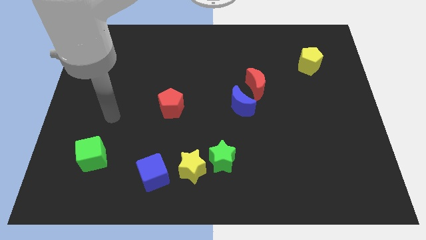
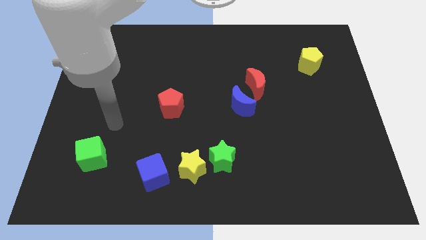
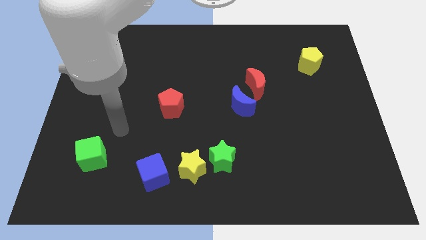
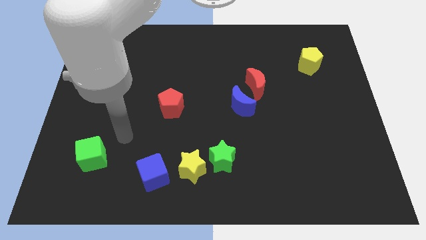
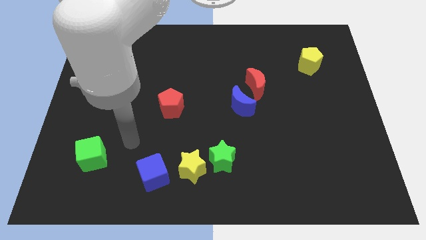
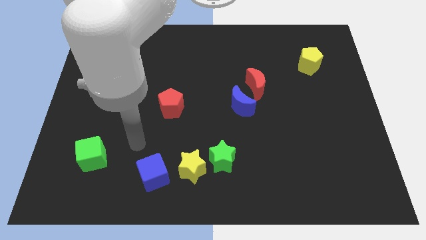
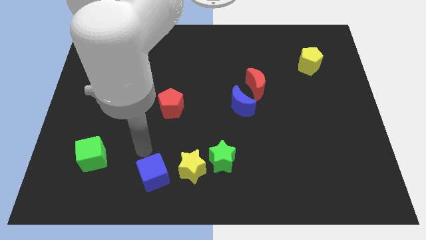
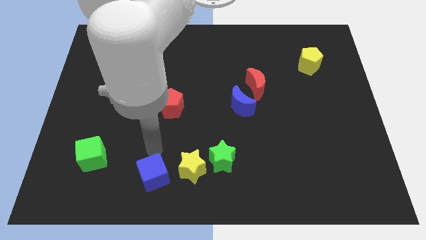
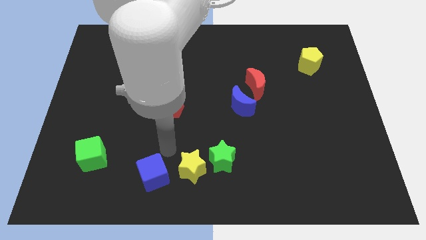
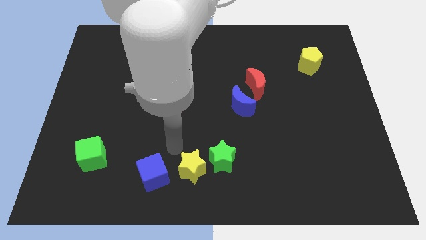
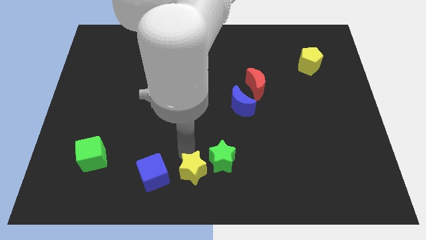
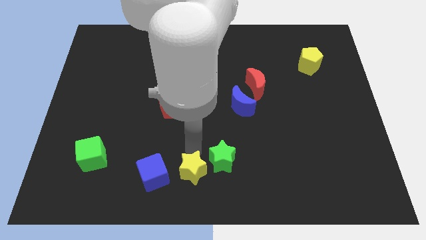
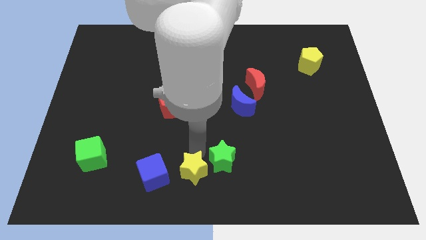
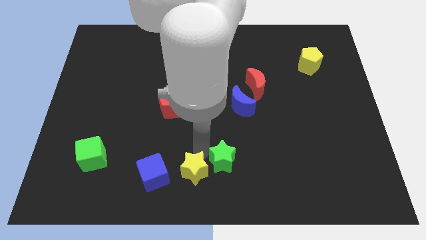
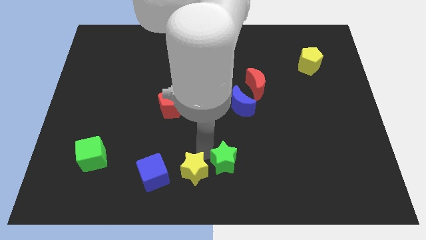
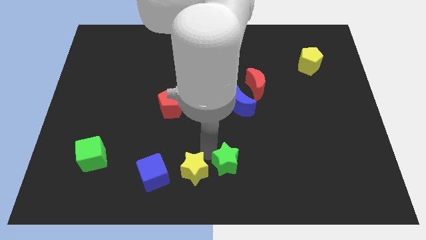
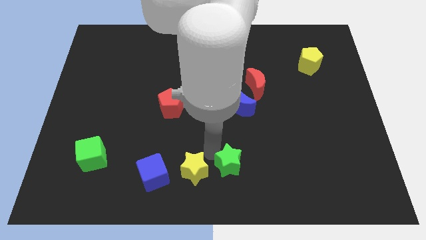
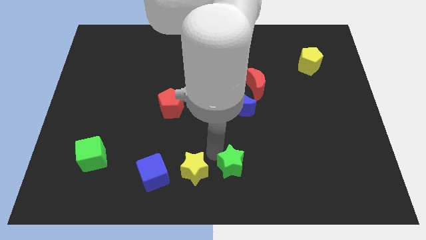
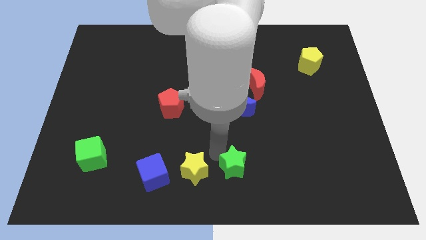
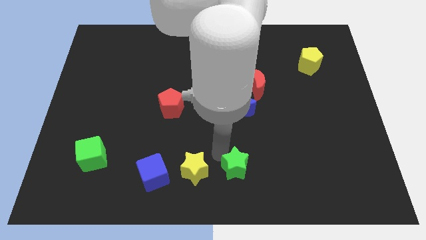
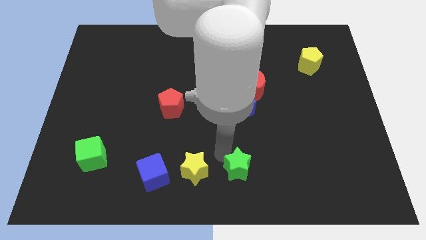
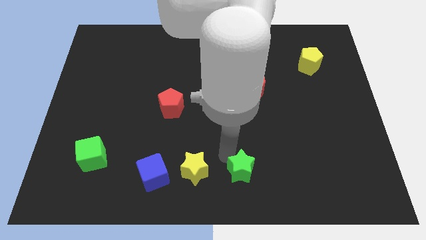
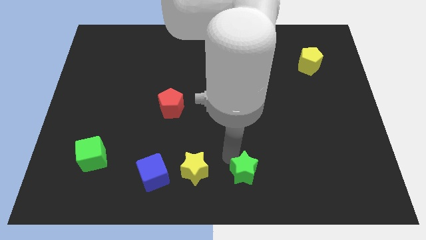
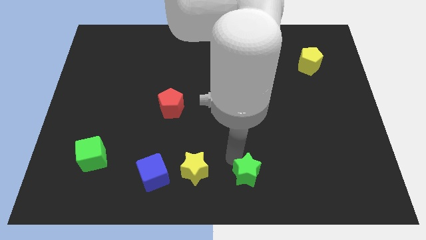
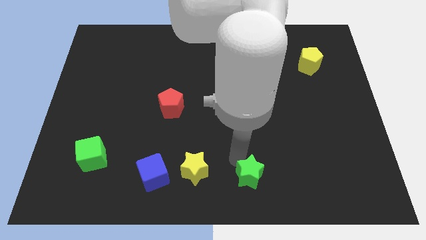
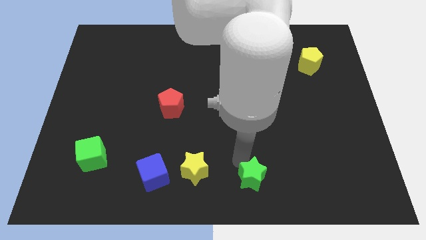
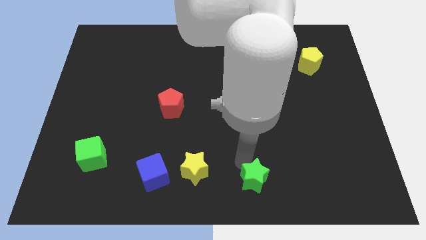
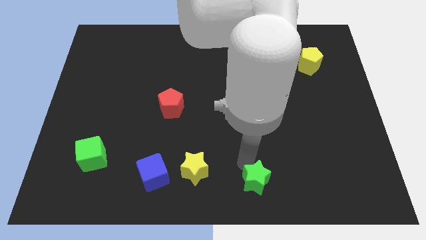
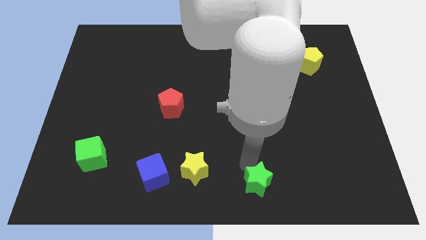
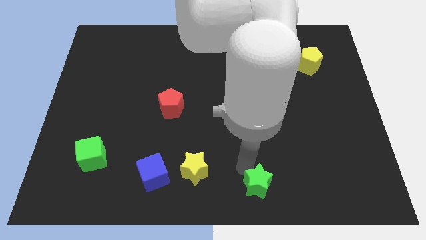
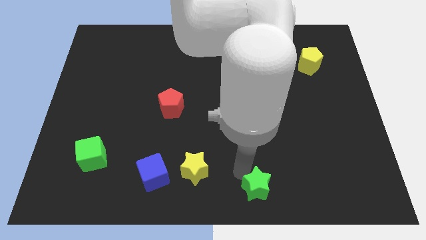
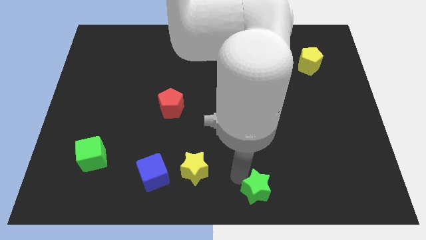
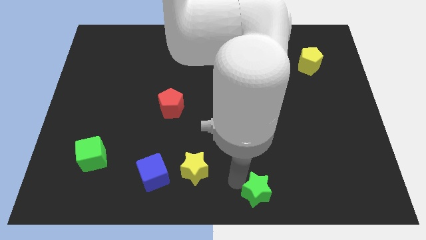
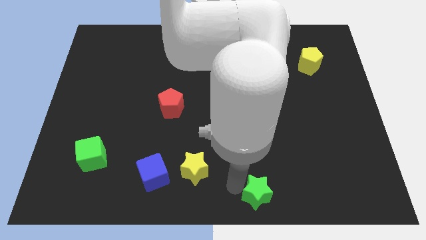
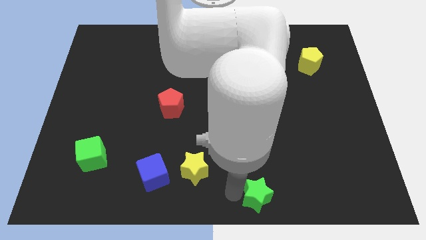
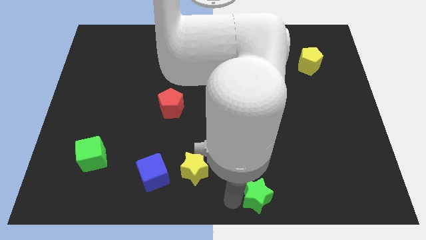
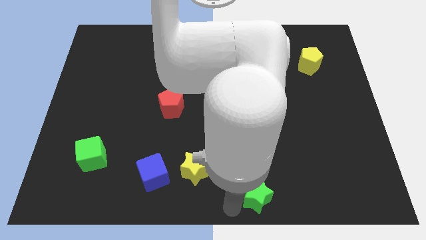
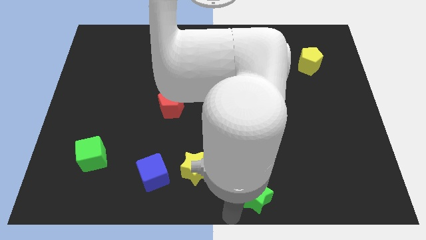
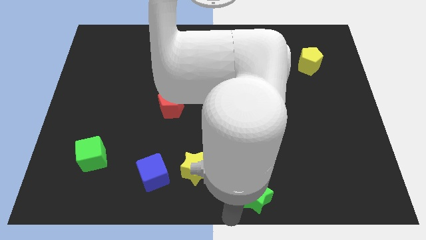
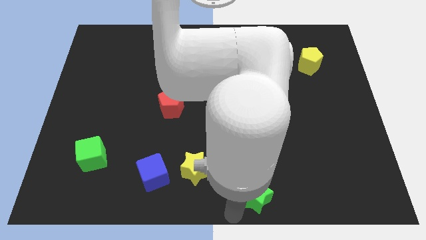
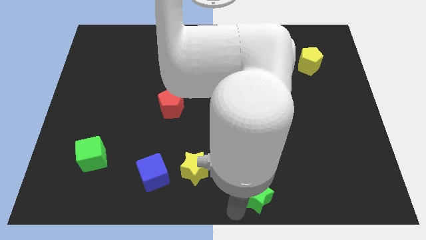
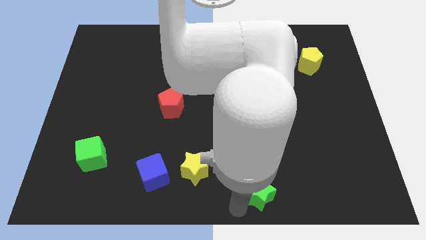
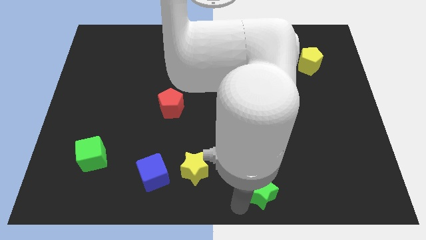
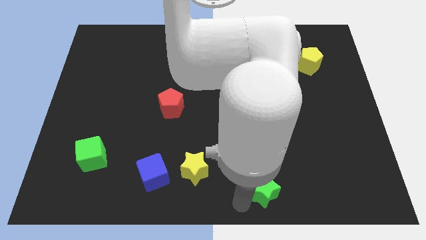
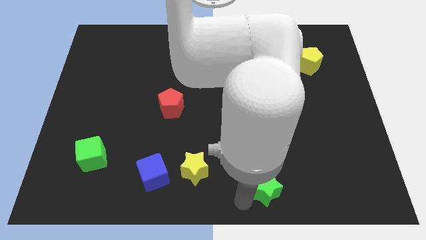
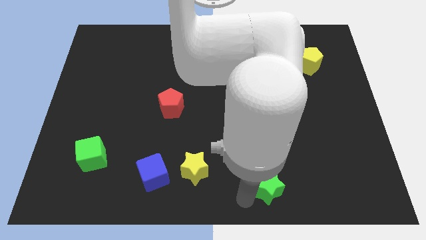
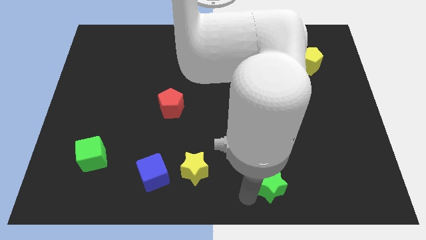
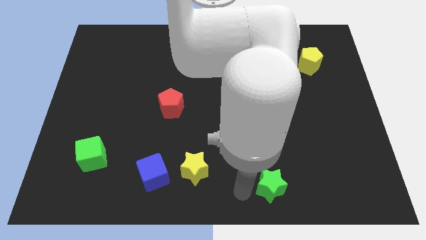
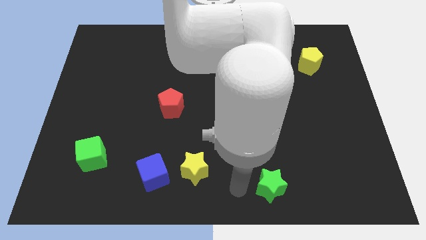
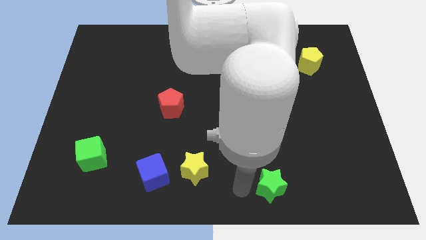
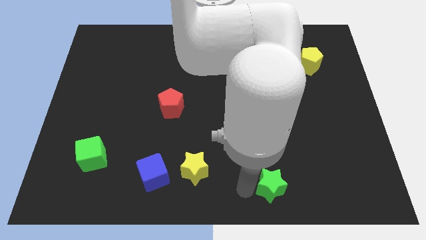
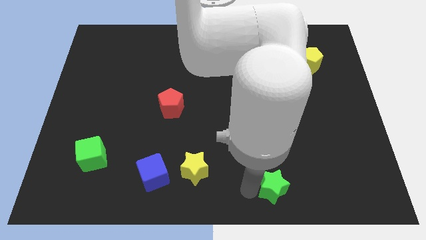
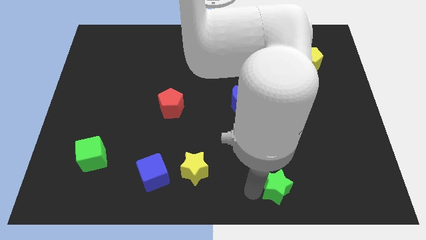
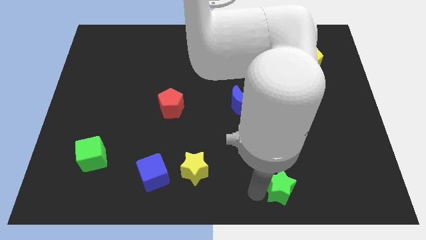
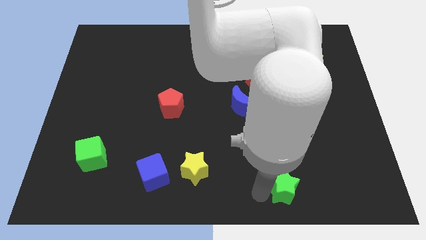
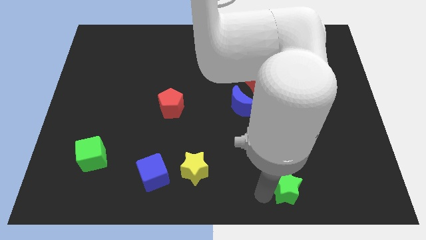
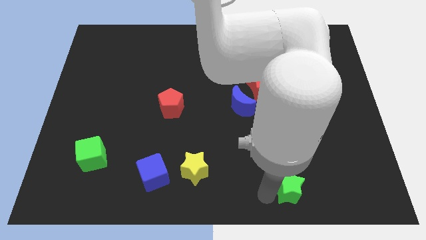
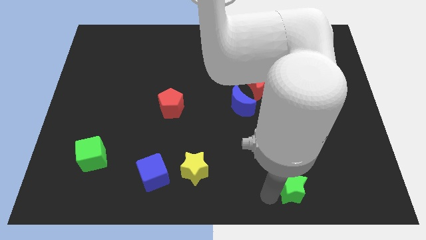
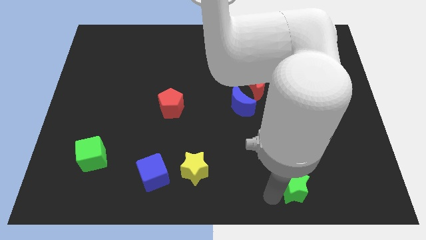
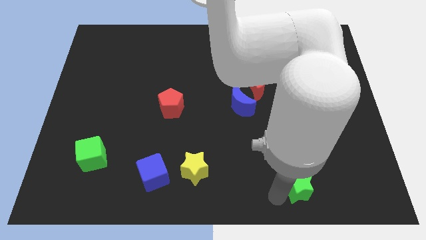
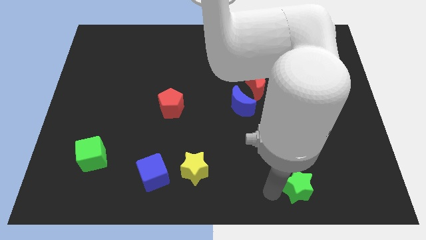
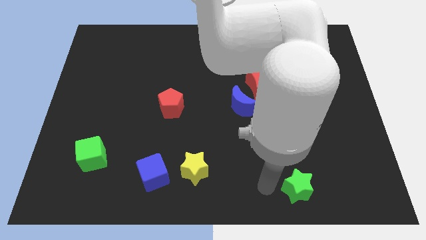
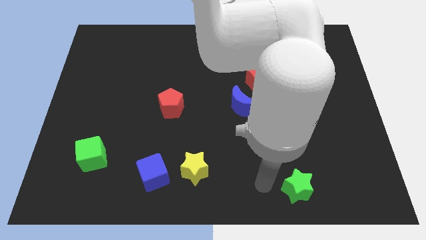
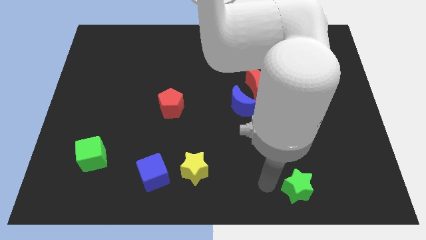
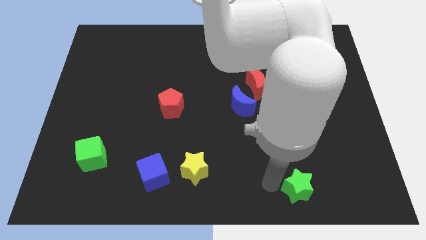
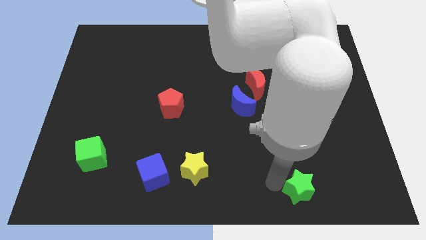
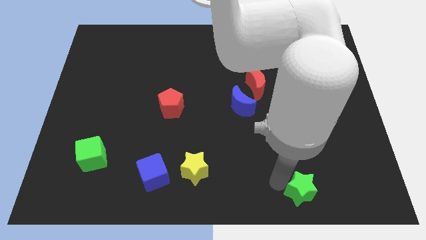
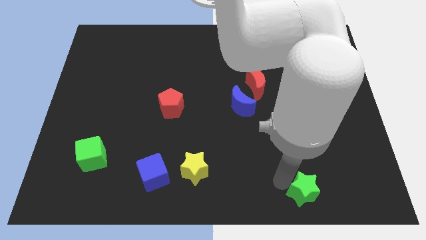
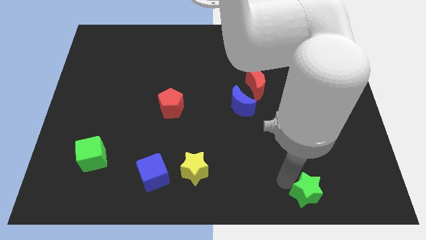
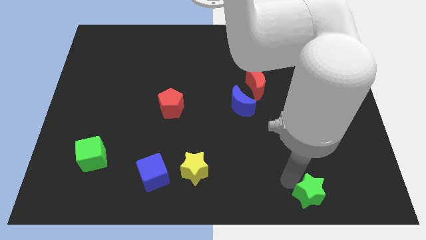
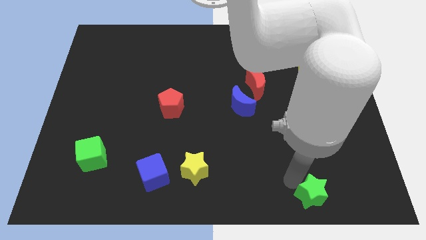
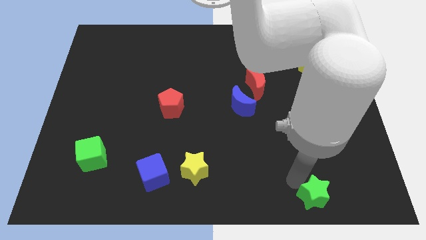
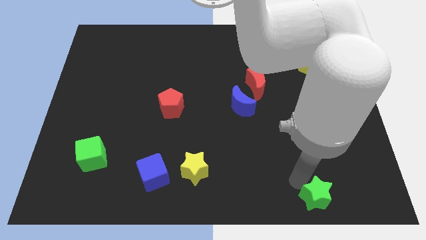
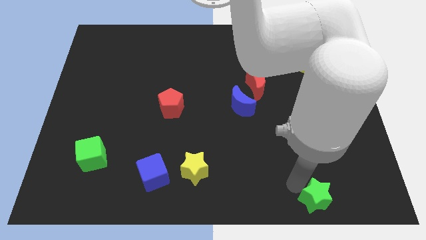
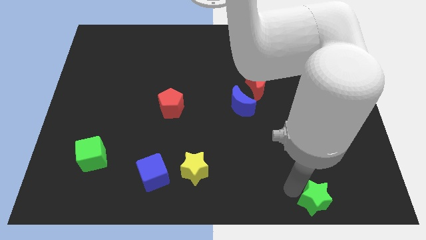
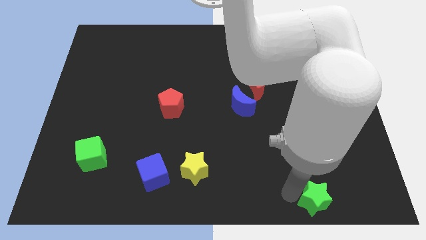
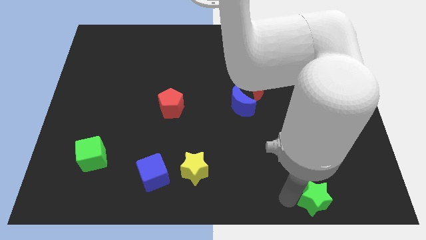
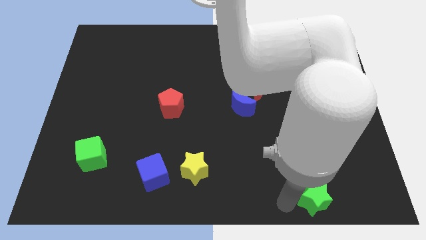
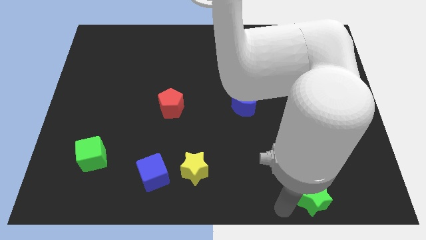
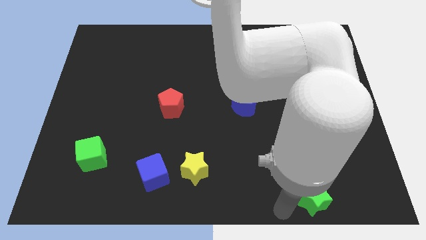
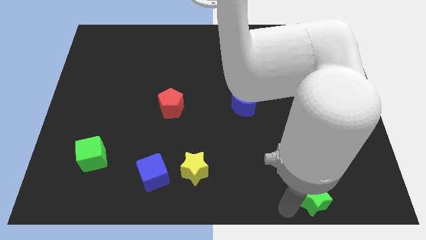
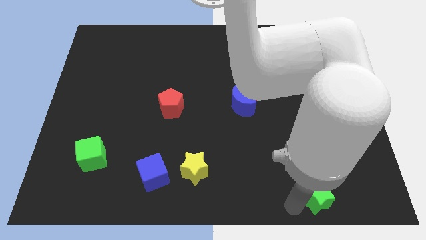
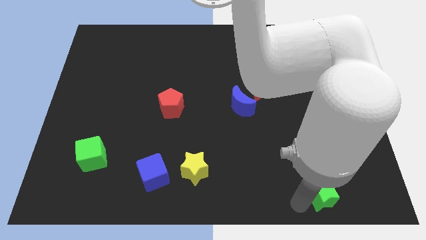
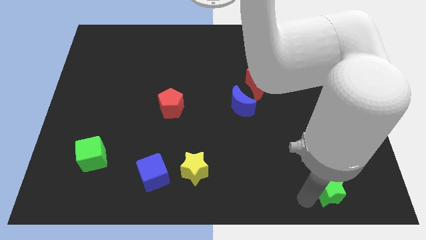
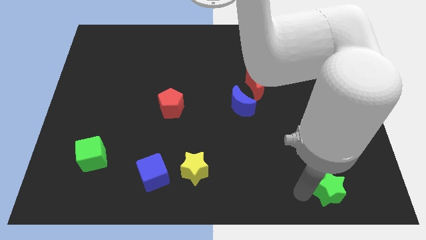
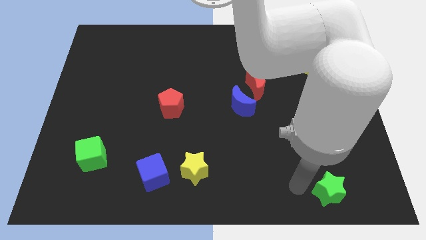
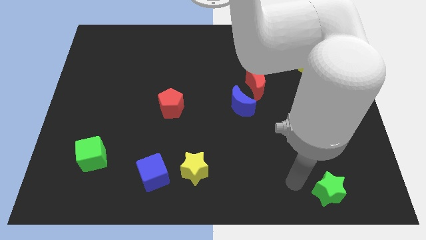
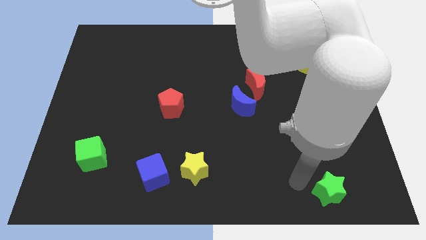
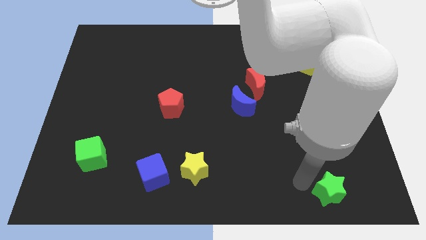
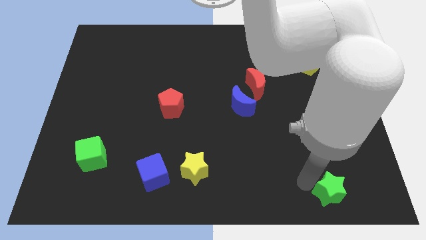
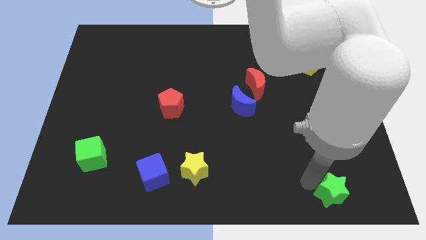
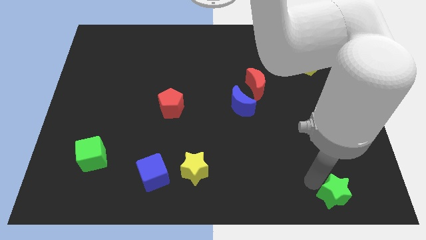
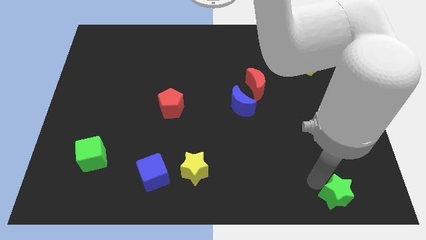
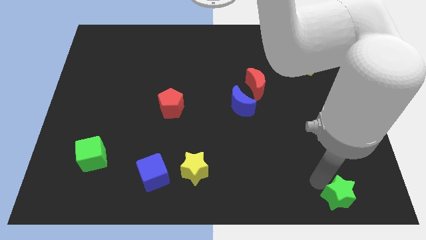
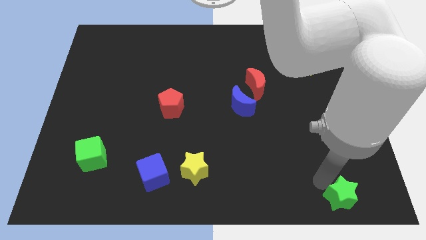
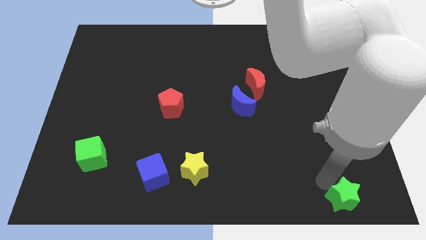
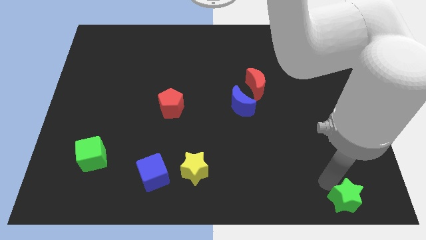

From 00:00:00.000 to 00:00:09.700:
put the green star to the lower right corner
